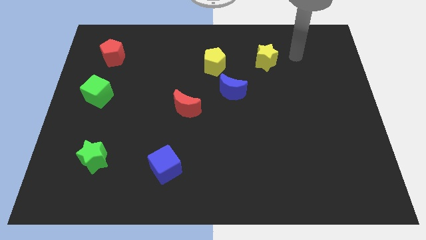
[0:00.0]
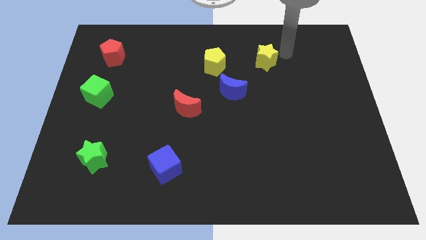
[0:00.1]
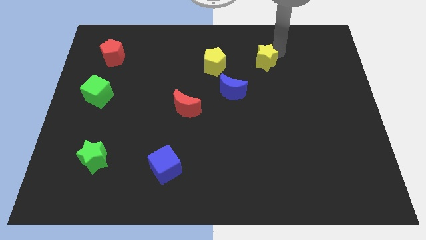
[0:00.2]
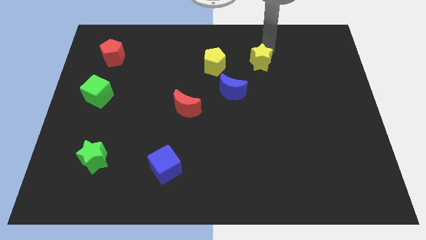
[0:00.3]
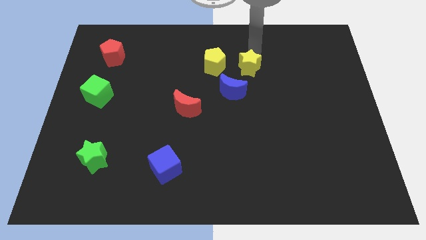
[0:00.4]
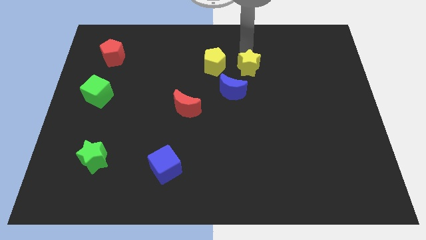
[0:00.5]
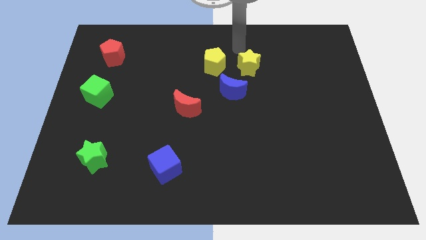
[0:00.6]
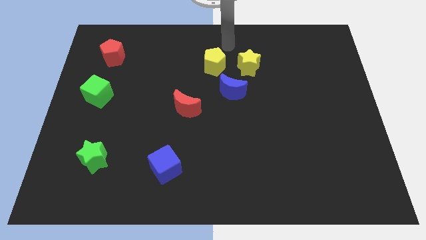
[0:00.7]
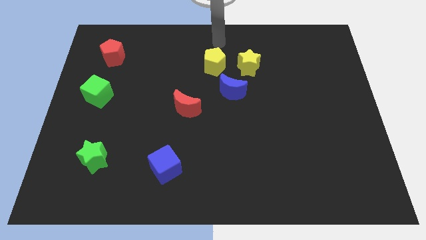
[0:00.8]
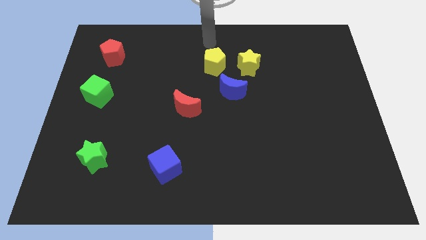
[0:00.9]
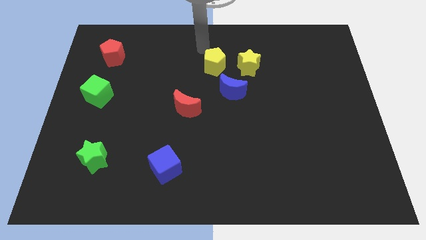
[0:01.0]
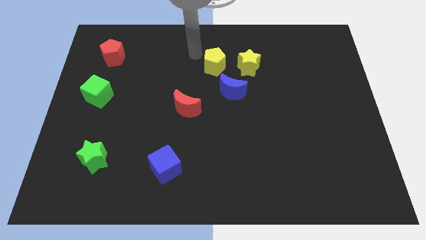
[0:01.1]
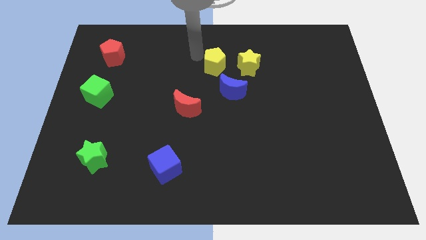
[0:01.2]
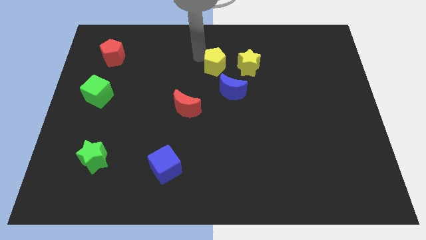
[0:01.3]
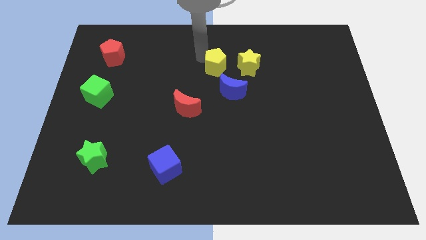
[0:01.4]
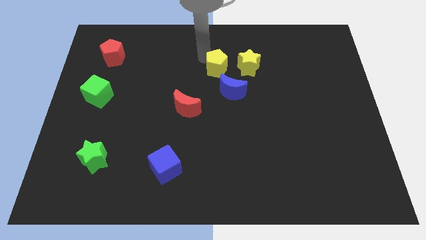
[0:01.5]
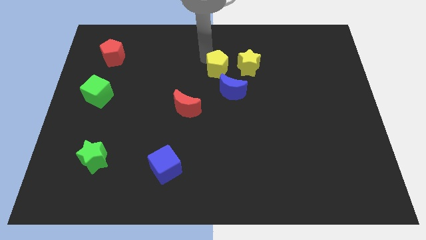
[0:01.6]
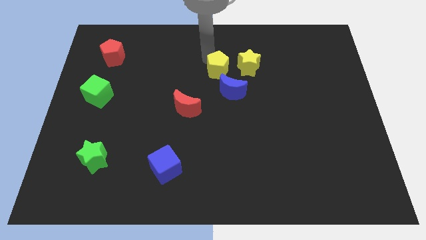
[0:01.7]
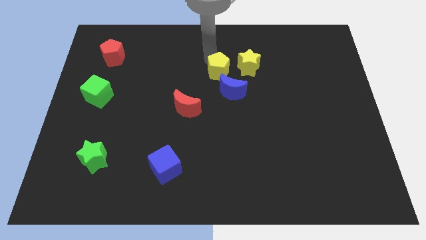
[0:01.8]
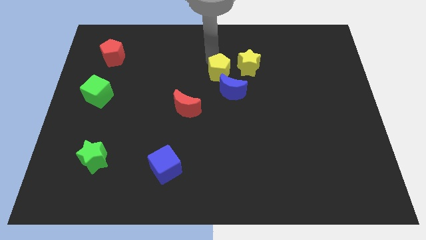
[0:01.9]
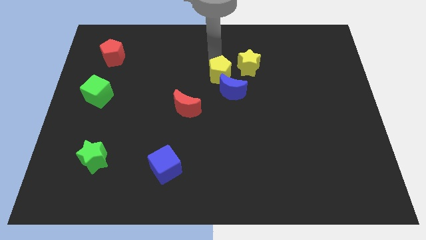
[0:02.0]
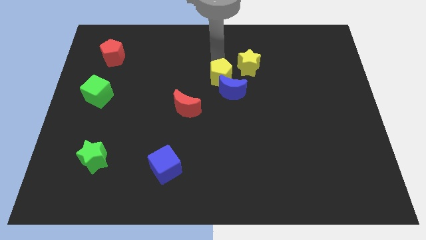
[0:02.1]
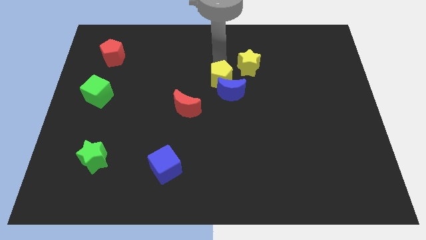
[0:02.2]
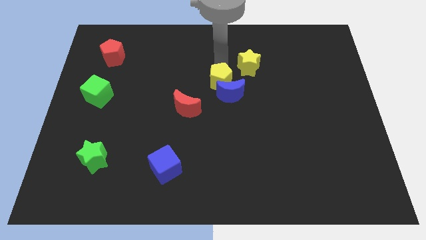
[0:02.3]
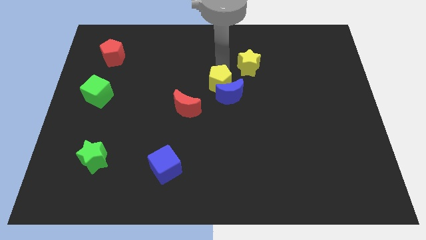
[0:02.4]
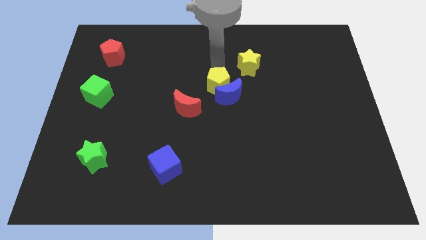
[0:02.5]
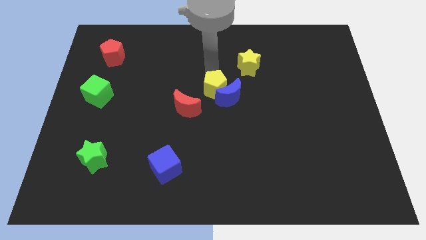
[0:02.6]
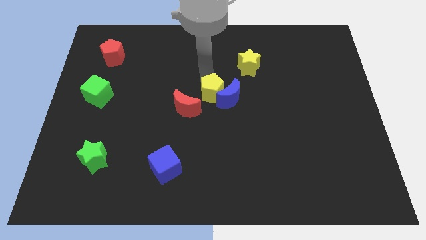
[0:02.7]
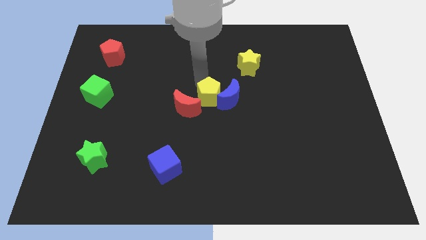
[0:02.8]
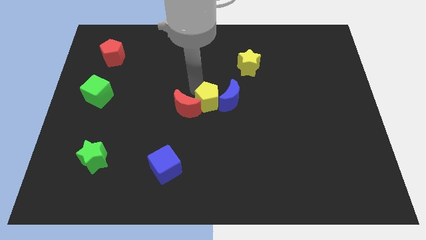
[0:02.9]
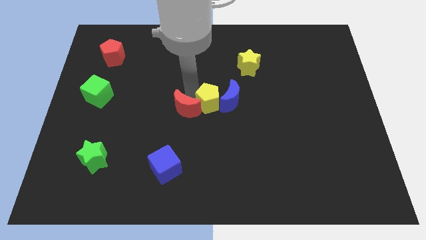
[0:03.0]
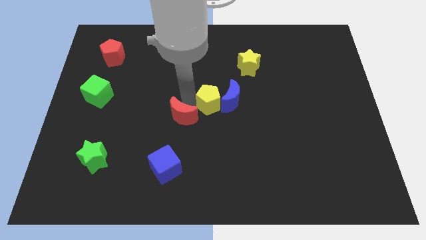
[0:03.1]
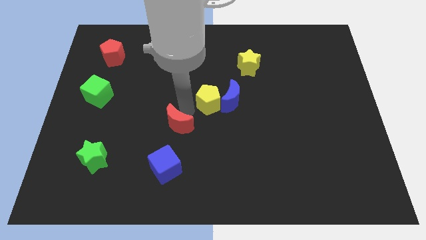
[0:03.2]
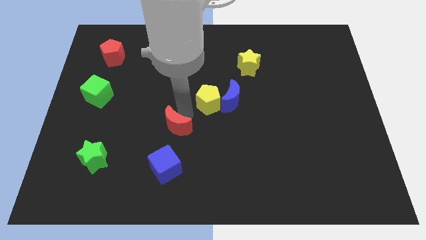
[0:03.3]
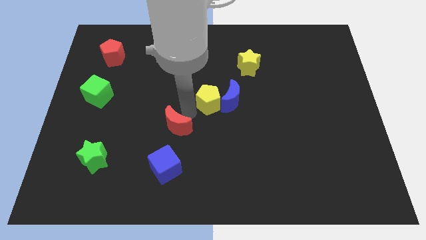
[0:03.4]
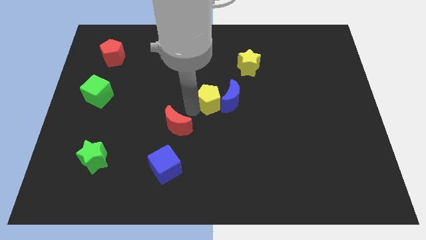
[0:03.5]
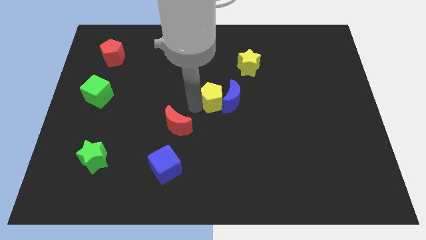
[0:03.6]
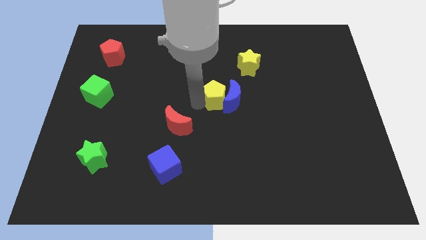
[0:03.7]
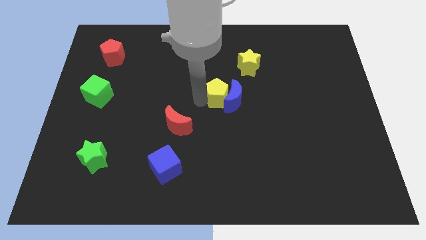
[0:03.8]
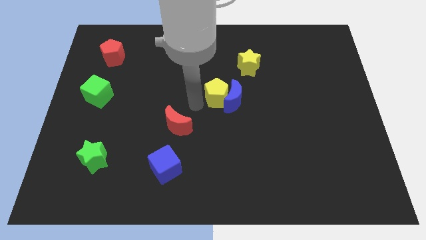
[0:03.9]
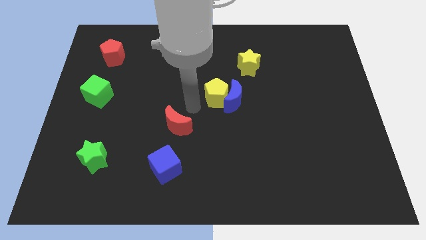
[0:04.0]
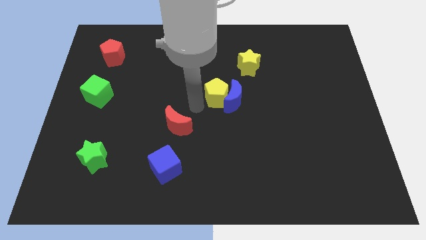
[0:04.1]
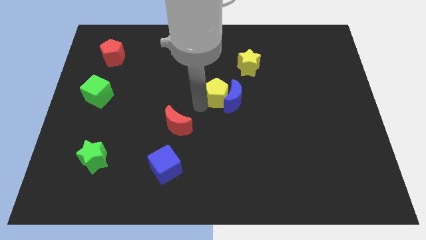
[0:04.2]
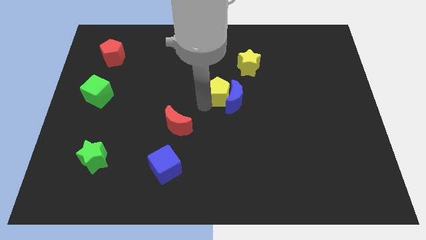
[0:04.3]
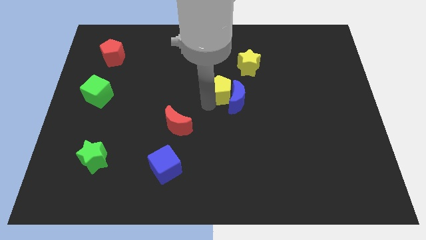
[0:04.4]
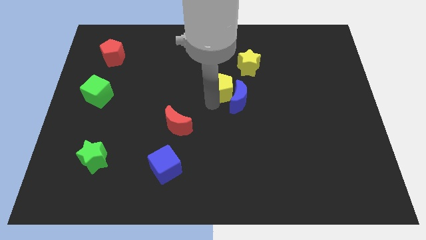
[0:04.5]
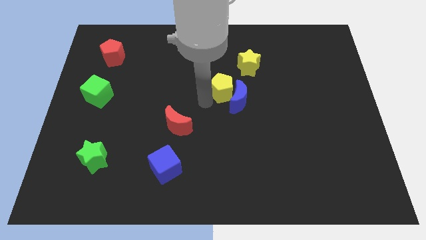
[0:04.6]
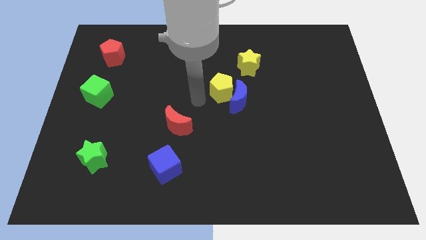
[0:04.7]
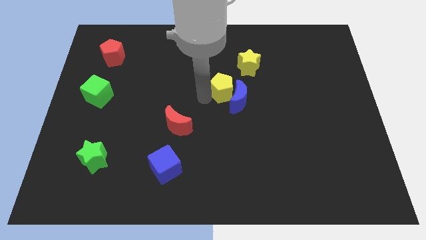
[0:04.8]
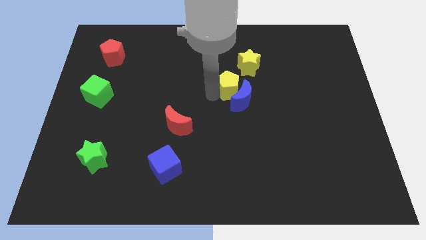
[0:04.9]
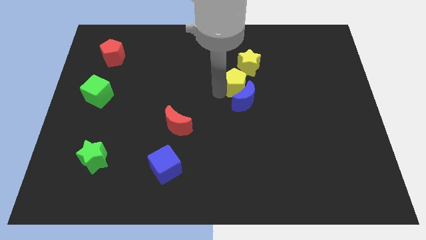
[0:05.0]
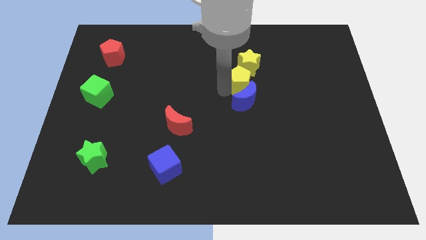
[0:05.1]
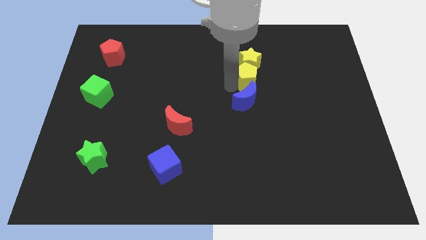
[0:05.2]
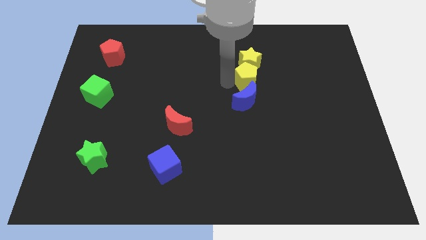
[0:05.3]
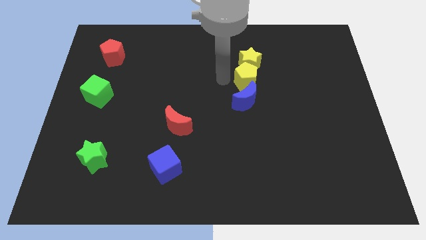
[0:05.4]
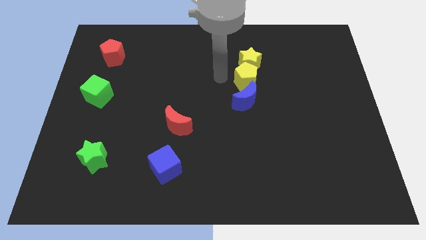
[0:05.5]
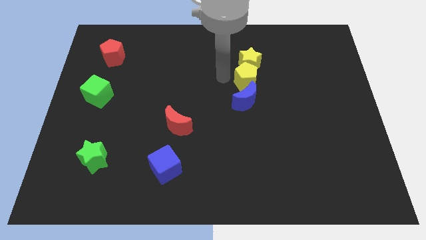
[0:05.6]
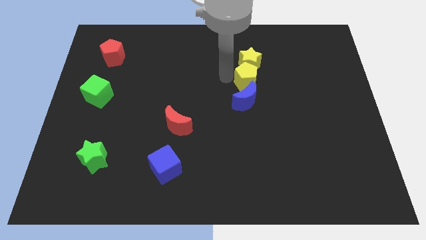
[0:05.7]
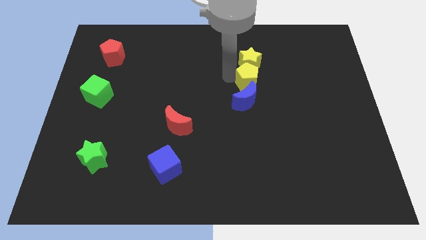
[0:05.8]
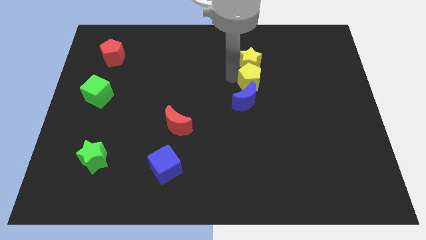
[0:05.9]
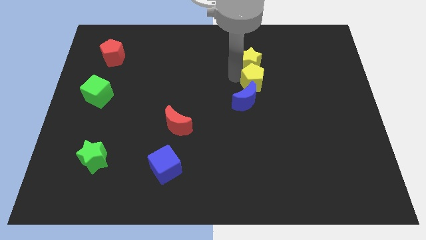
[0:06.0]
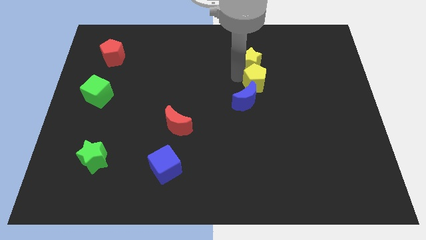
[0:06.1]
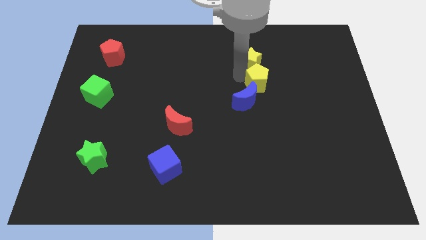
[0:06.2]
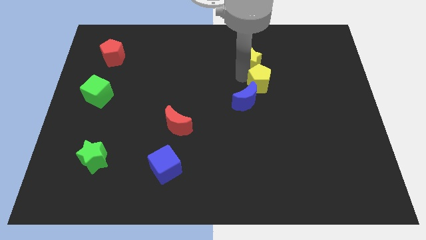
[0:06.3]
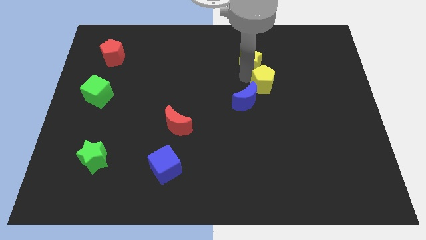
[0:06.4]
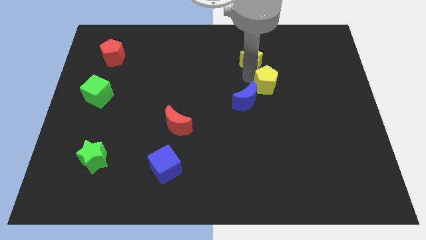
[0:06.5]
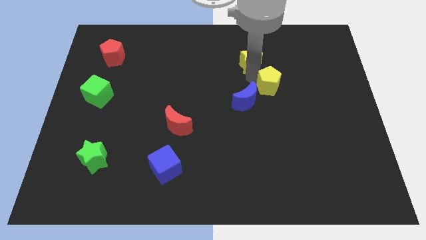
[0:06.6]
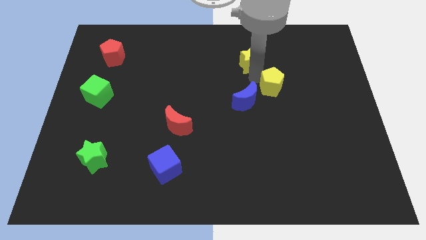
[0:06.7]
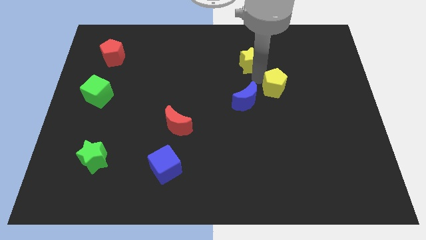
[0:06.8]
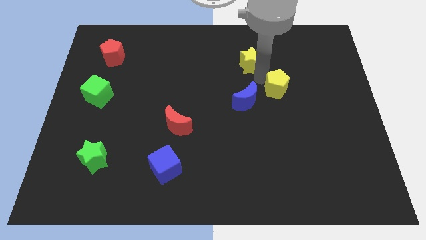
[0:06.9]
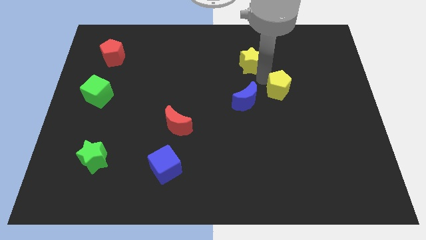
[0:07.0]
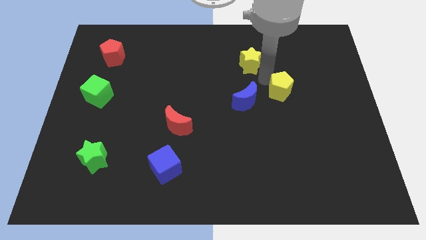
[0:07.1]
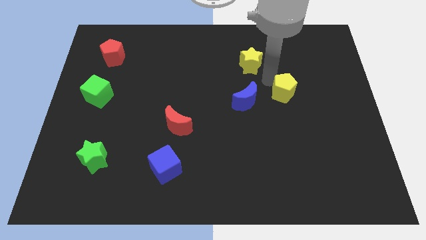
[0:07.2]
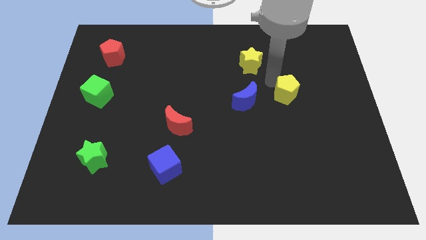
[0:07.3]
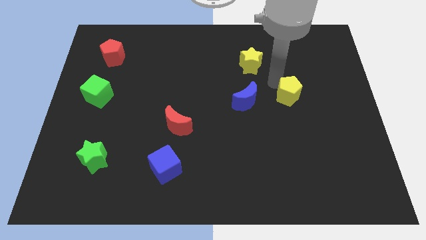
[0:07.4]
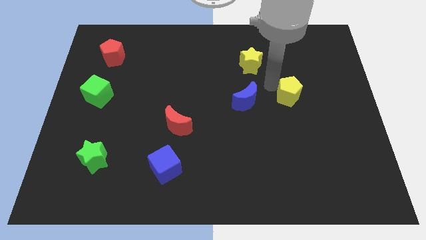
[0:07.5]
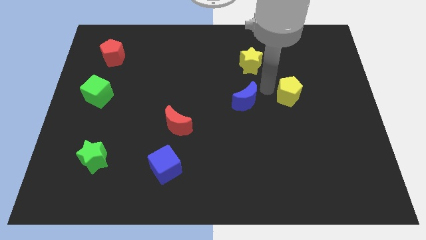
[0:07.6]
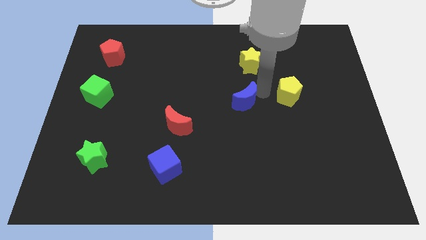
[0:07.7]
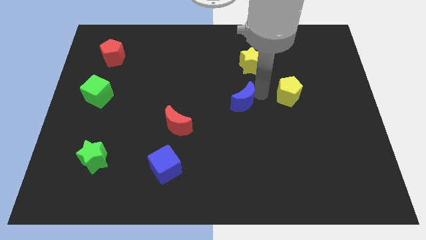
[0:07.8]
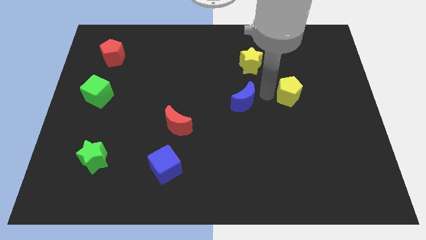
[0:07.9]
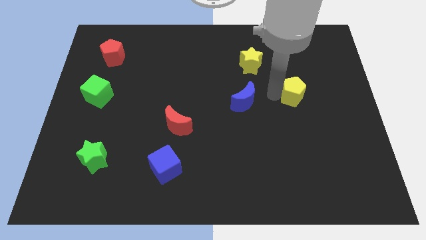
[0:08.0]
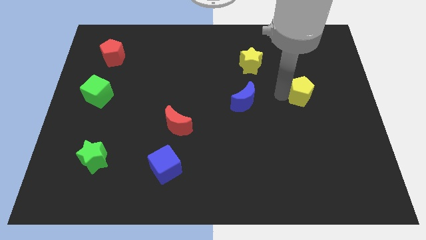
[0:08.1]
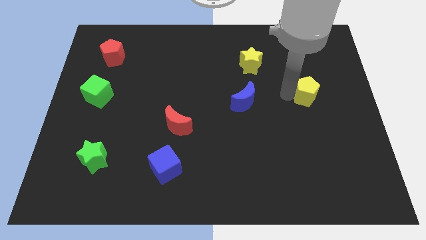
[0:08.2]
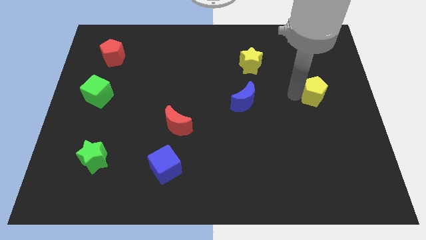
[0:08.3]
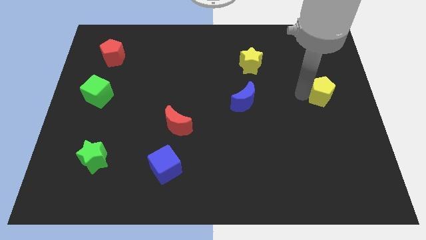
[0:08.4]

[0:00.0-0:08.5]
put the yellow pentagon to the right side of the board
